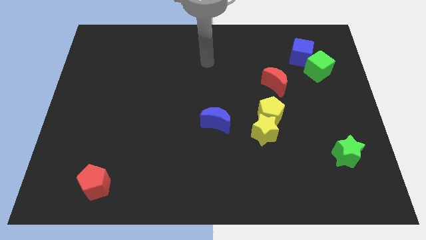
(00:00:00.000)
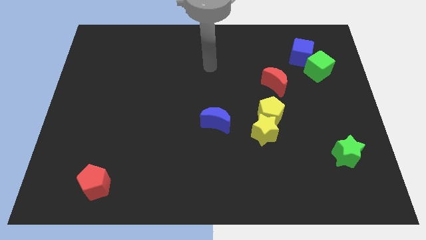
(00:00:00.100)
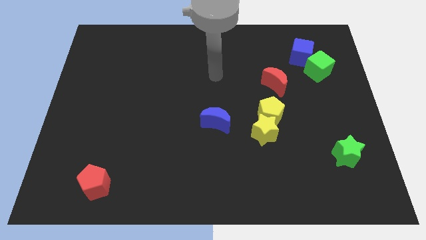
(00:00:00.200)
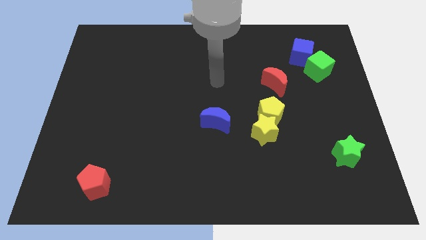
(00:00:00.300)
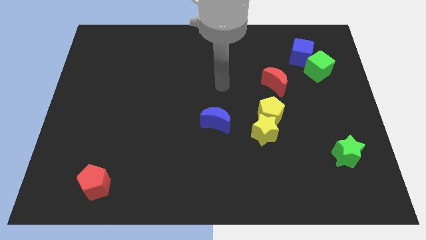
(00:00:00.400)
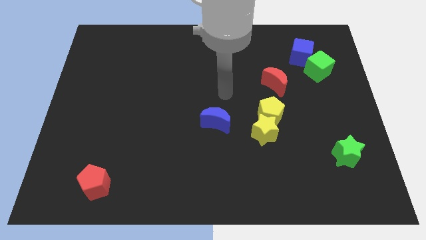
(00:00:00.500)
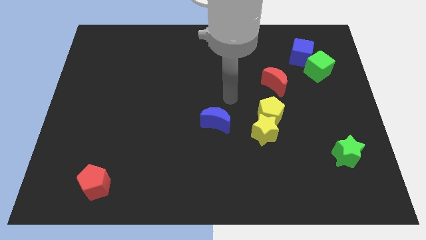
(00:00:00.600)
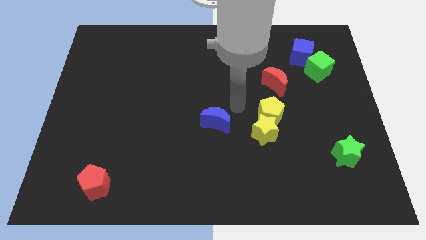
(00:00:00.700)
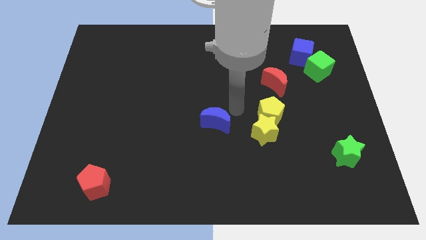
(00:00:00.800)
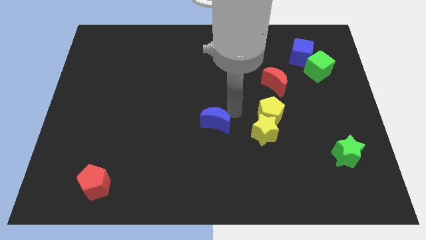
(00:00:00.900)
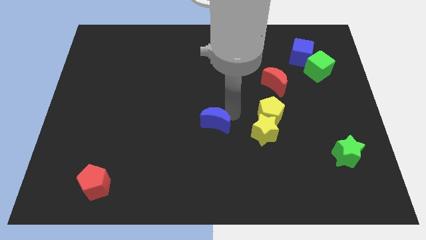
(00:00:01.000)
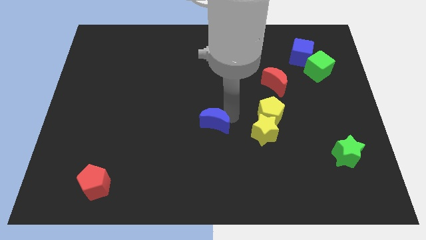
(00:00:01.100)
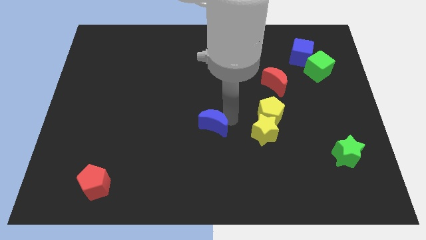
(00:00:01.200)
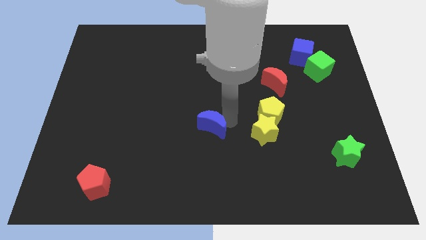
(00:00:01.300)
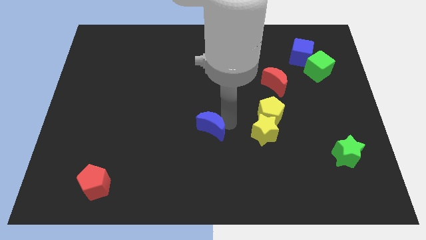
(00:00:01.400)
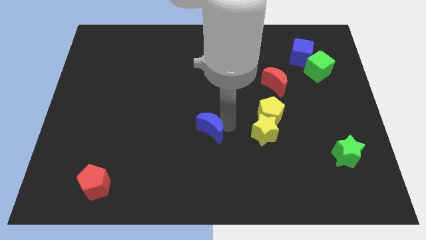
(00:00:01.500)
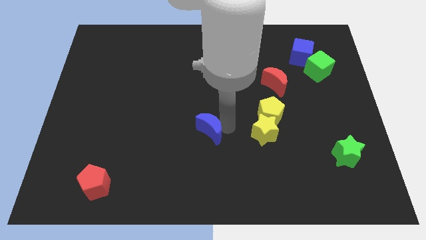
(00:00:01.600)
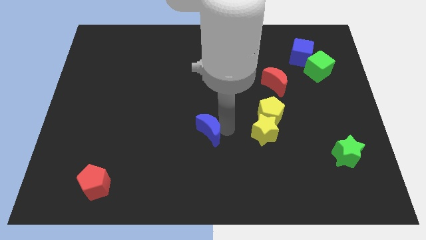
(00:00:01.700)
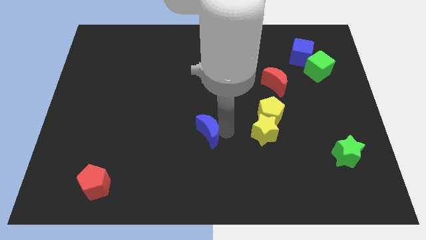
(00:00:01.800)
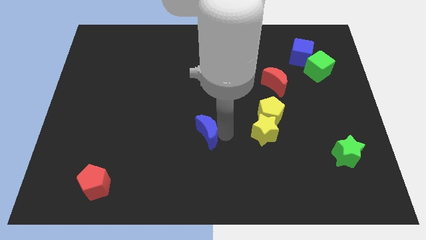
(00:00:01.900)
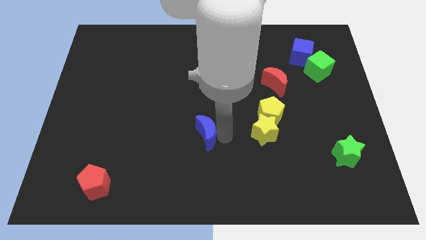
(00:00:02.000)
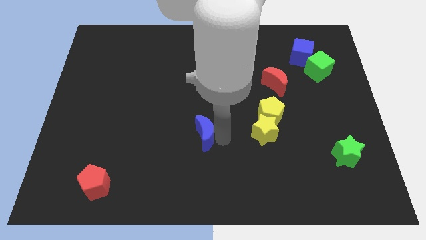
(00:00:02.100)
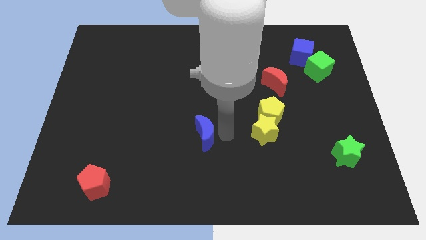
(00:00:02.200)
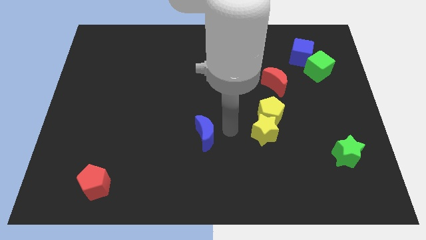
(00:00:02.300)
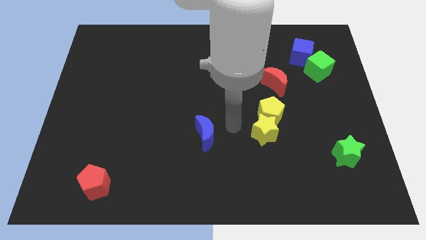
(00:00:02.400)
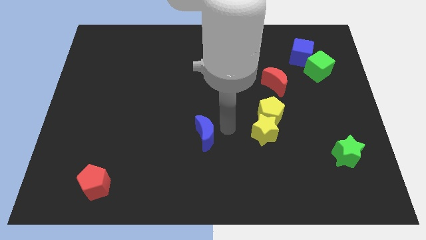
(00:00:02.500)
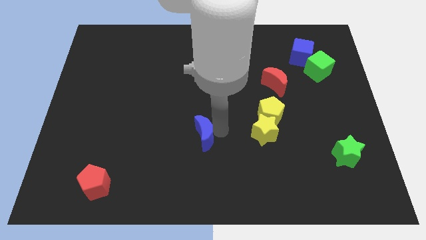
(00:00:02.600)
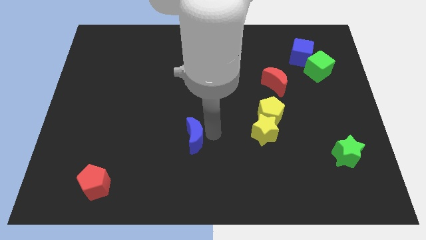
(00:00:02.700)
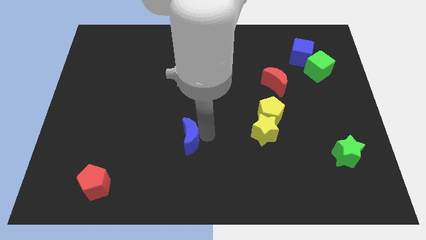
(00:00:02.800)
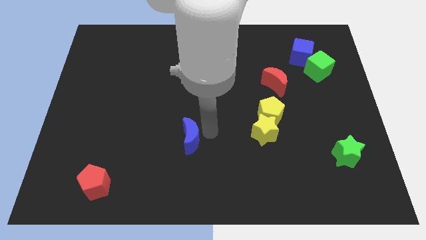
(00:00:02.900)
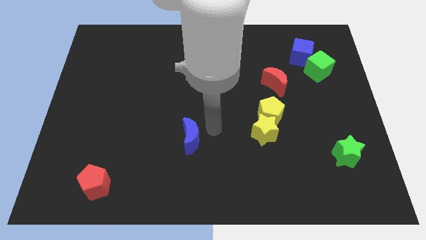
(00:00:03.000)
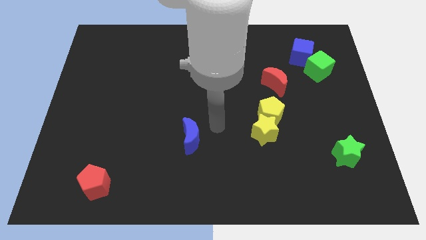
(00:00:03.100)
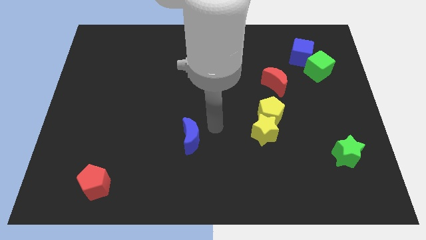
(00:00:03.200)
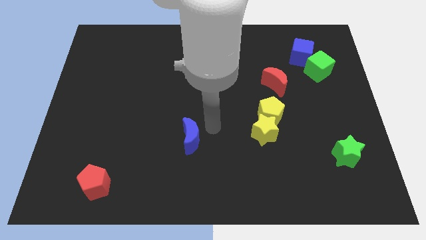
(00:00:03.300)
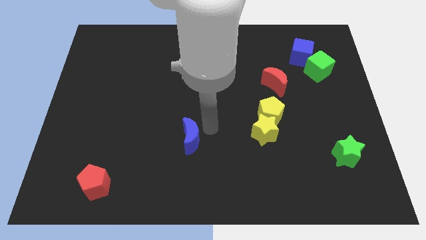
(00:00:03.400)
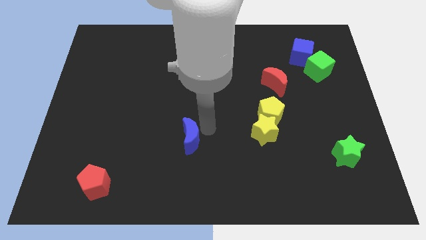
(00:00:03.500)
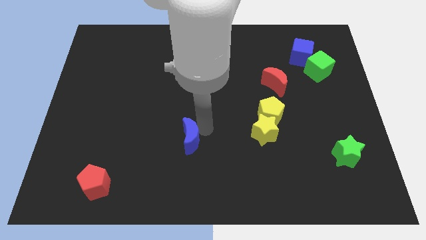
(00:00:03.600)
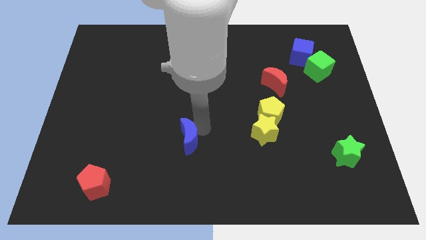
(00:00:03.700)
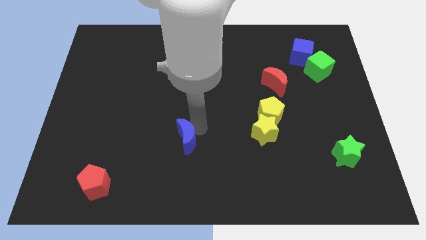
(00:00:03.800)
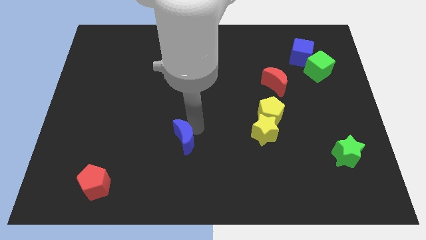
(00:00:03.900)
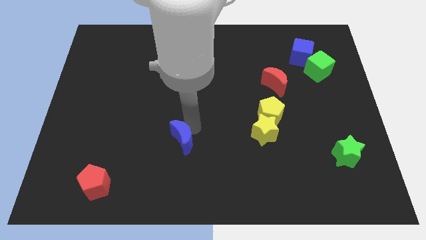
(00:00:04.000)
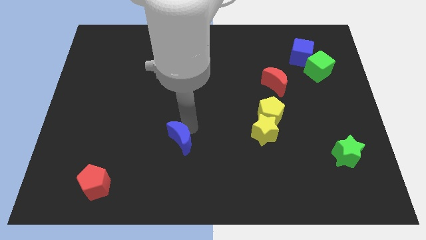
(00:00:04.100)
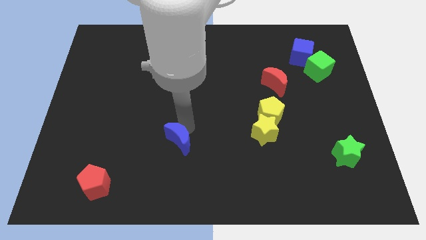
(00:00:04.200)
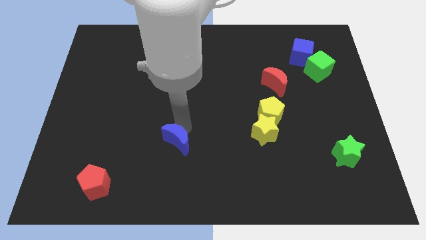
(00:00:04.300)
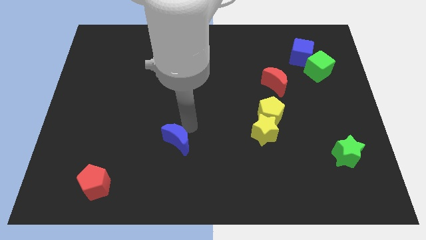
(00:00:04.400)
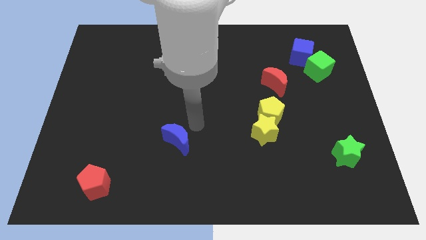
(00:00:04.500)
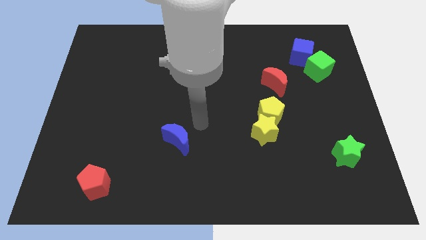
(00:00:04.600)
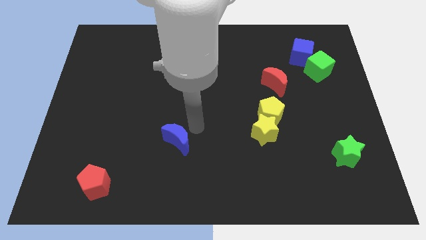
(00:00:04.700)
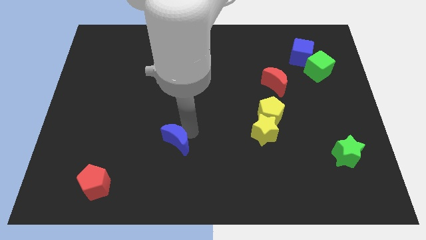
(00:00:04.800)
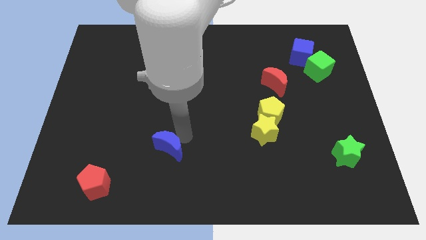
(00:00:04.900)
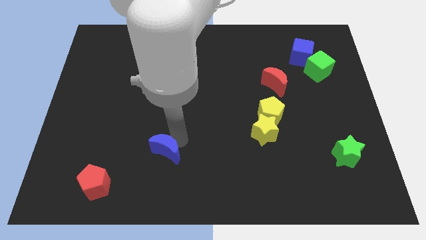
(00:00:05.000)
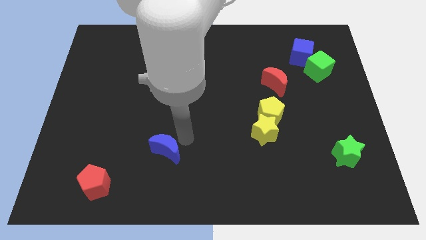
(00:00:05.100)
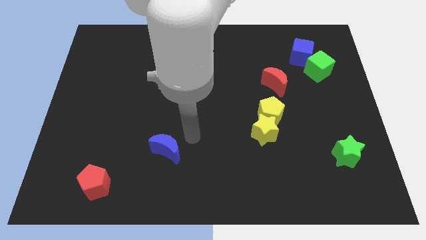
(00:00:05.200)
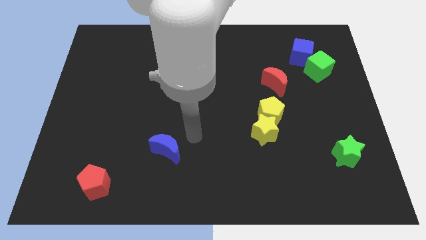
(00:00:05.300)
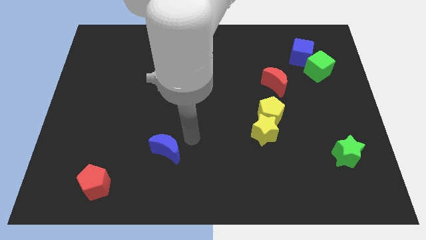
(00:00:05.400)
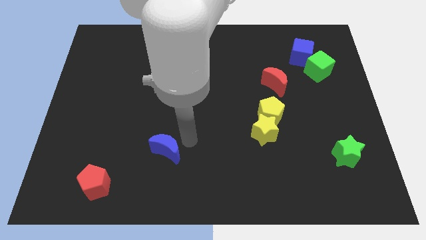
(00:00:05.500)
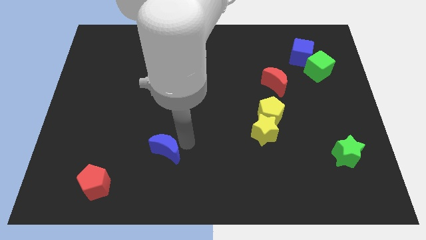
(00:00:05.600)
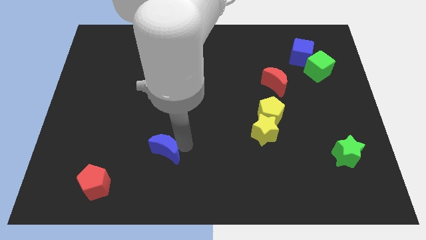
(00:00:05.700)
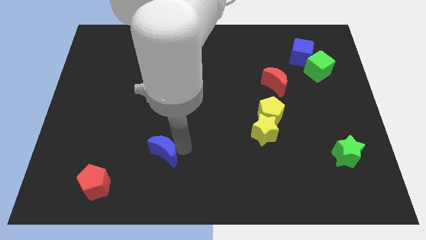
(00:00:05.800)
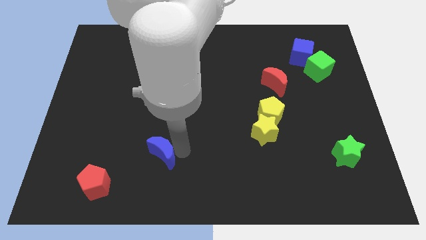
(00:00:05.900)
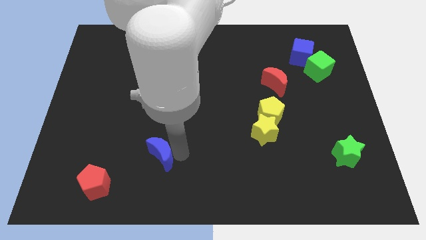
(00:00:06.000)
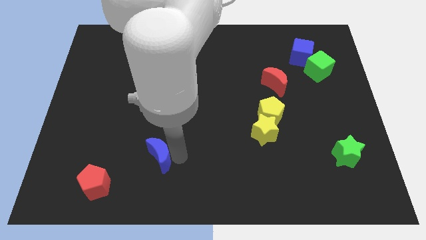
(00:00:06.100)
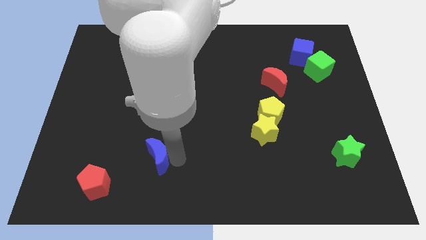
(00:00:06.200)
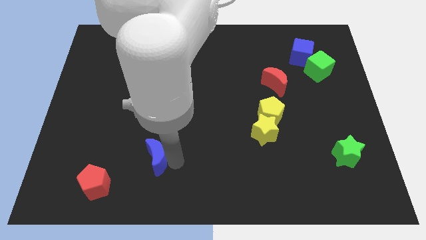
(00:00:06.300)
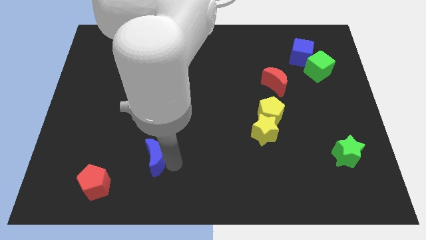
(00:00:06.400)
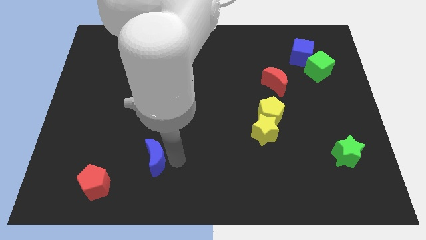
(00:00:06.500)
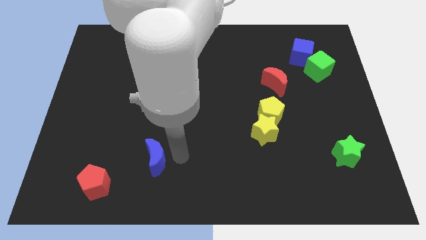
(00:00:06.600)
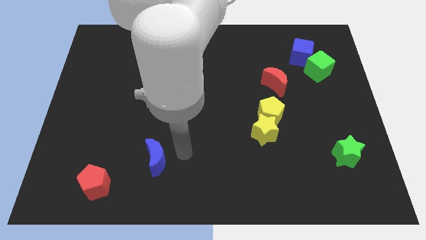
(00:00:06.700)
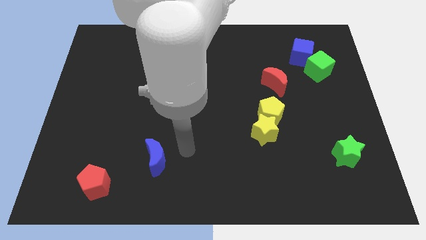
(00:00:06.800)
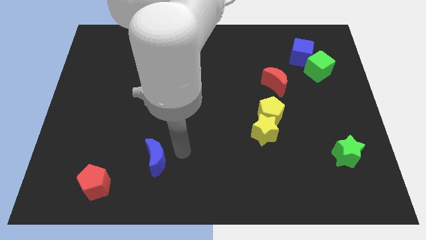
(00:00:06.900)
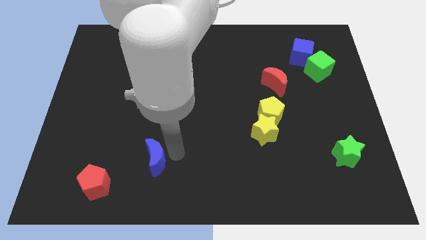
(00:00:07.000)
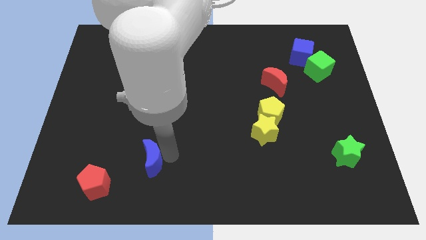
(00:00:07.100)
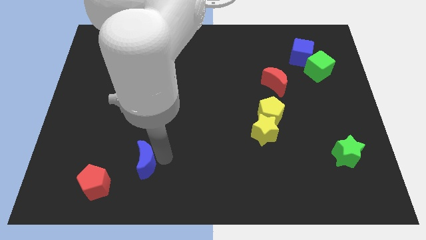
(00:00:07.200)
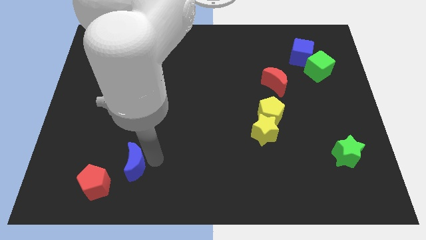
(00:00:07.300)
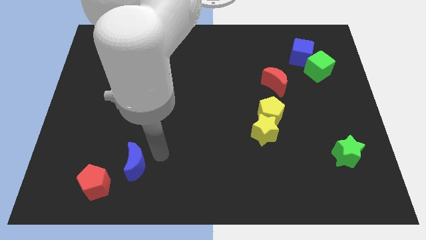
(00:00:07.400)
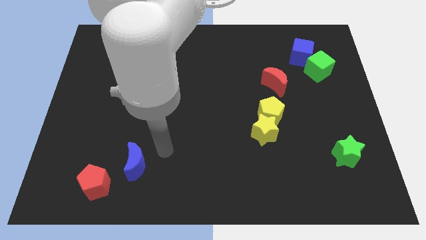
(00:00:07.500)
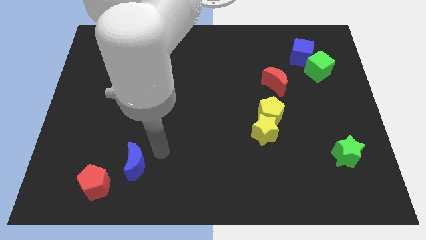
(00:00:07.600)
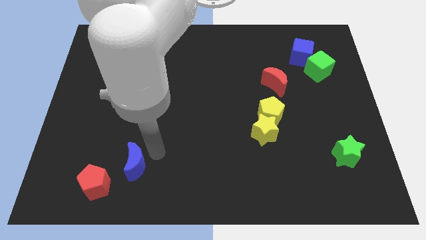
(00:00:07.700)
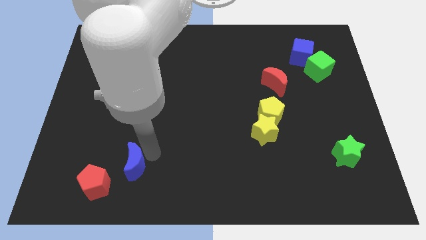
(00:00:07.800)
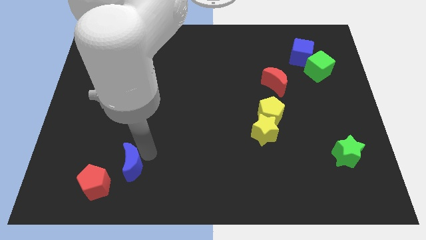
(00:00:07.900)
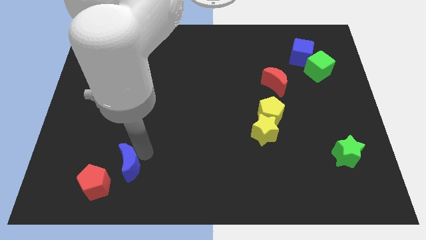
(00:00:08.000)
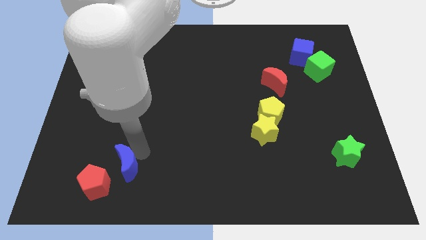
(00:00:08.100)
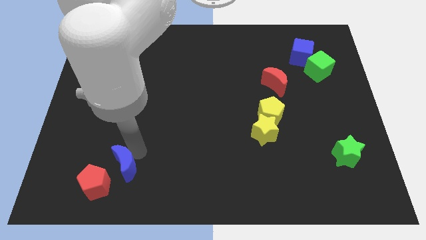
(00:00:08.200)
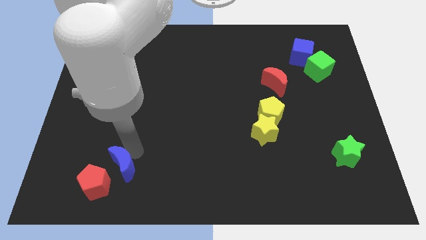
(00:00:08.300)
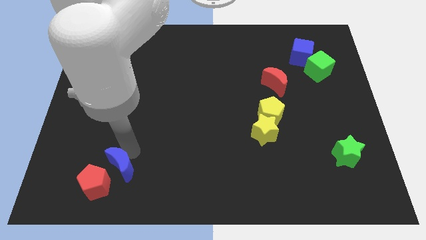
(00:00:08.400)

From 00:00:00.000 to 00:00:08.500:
put the blue moon towards the red pentagon

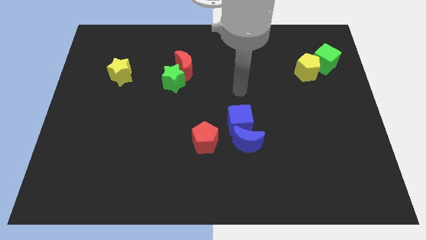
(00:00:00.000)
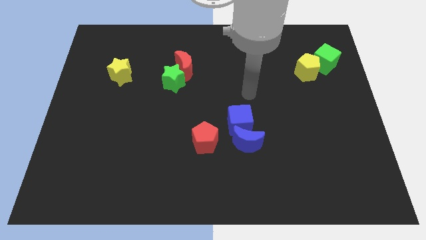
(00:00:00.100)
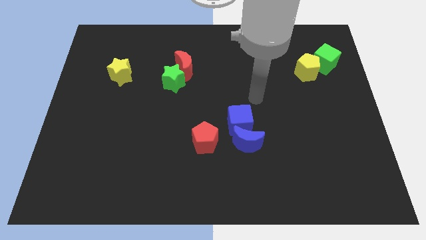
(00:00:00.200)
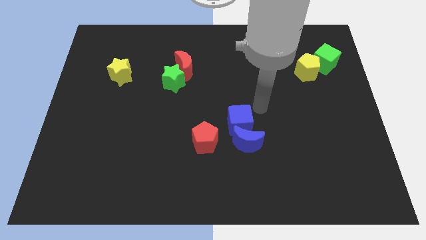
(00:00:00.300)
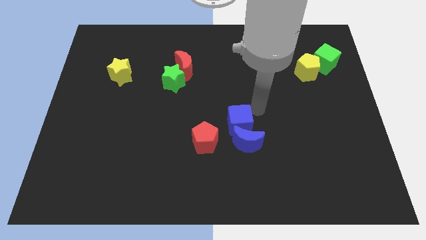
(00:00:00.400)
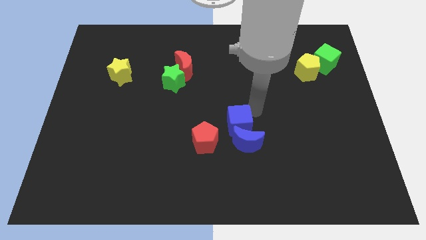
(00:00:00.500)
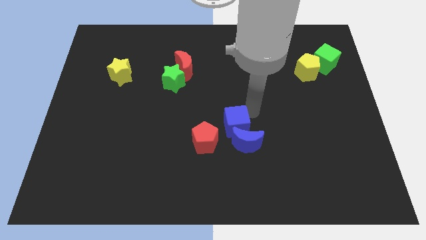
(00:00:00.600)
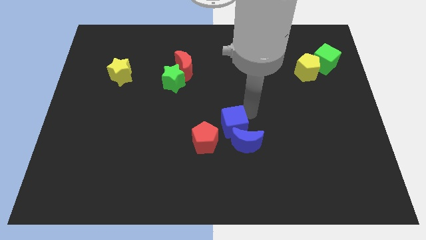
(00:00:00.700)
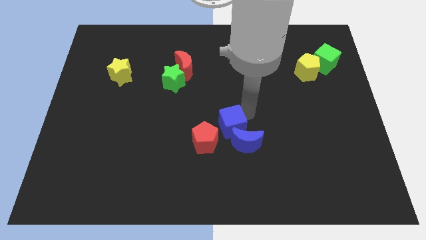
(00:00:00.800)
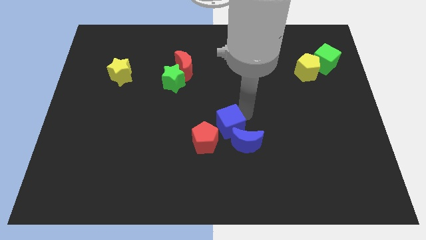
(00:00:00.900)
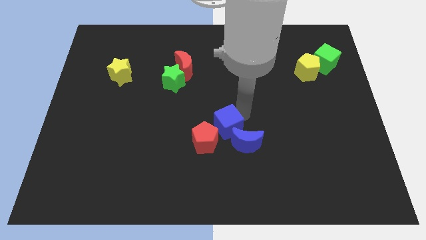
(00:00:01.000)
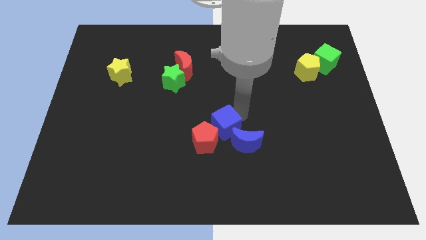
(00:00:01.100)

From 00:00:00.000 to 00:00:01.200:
move the blue cube close to the red pentagon
